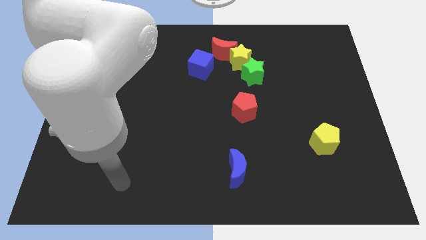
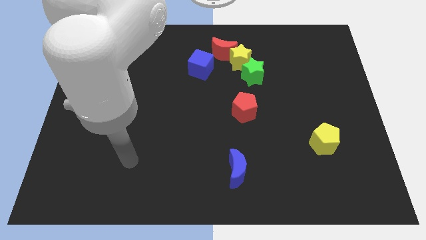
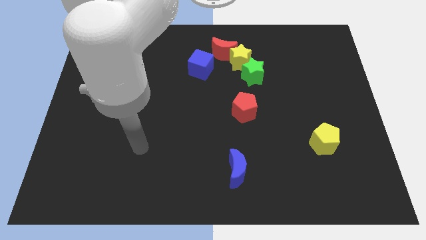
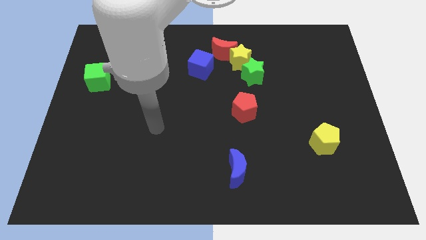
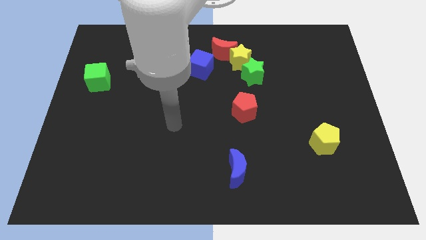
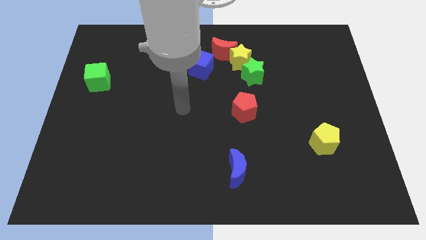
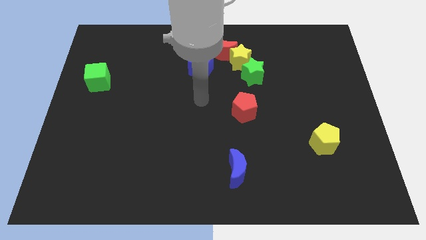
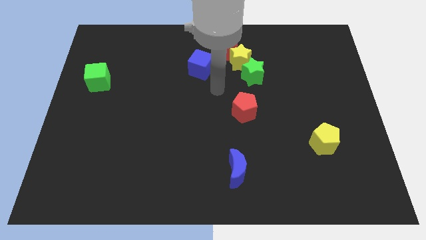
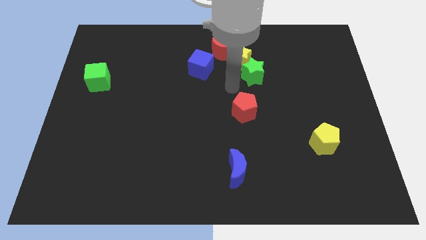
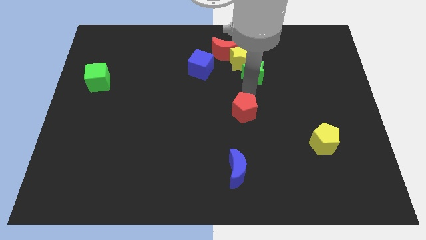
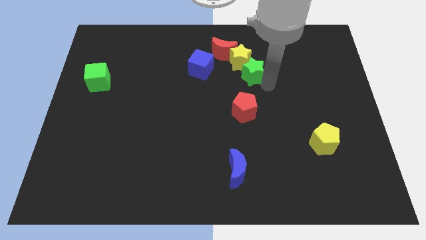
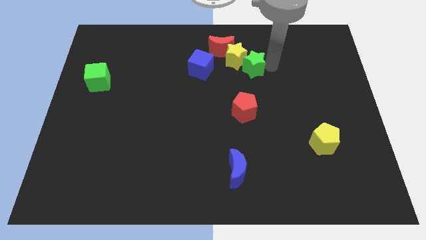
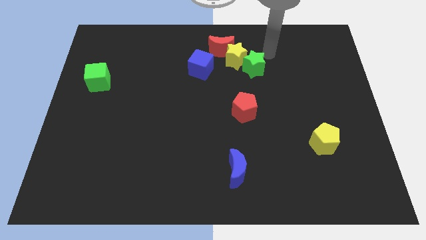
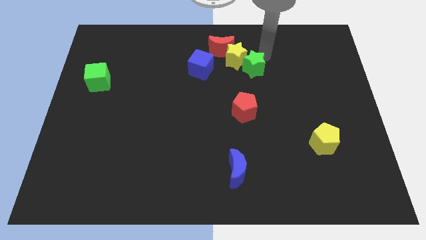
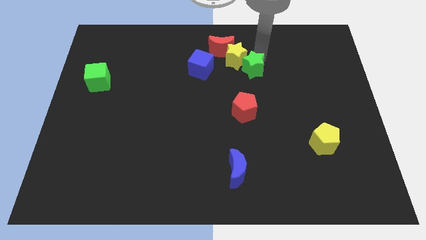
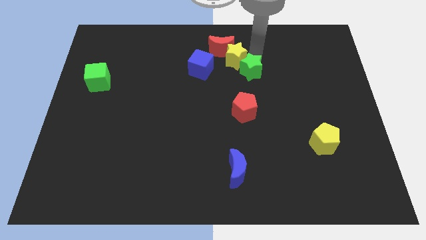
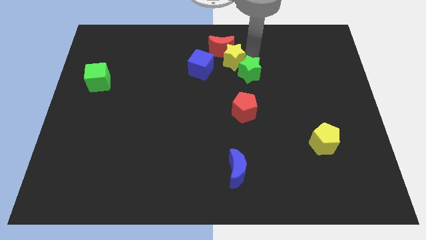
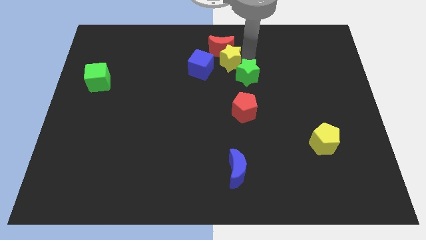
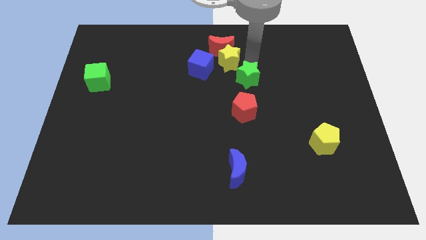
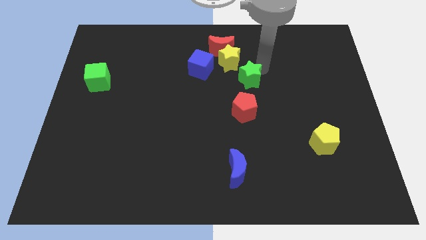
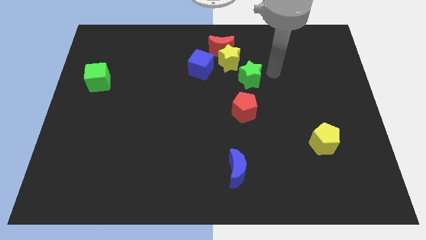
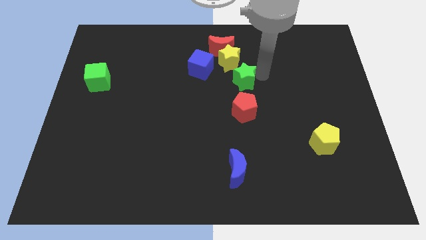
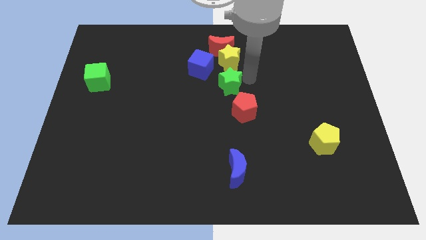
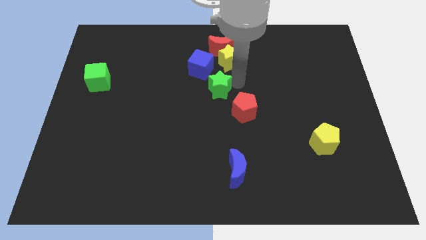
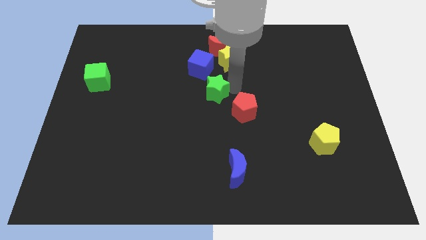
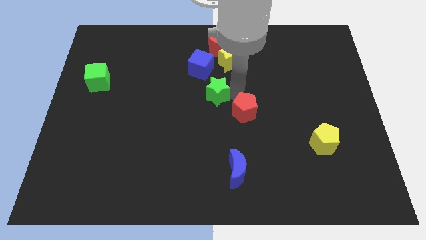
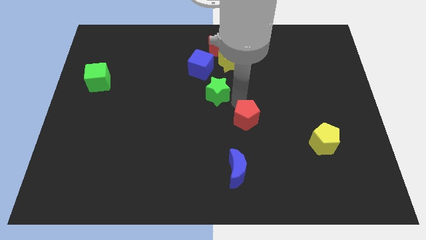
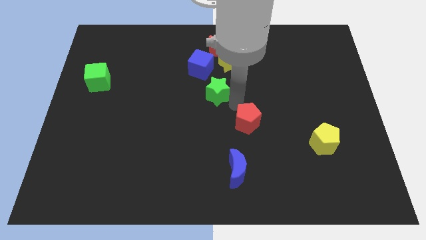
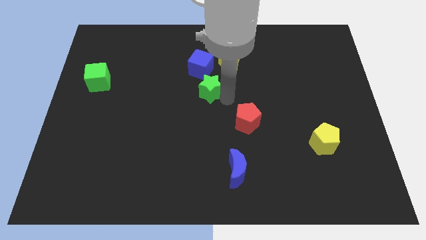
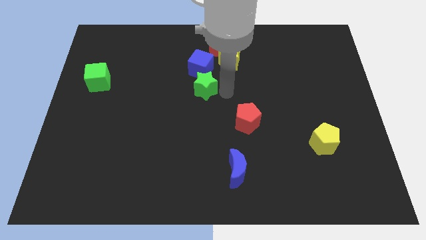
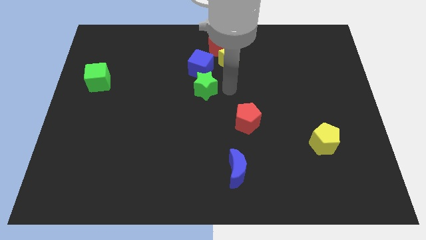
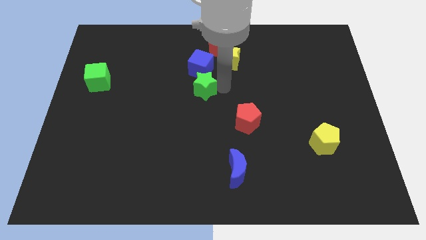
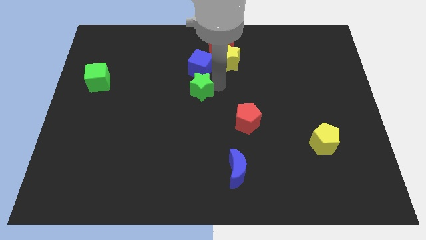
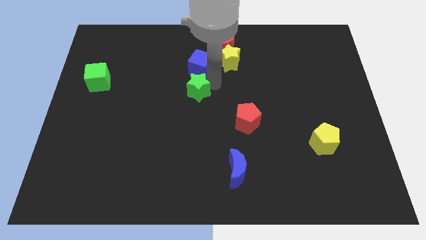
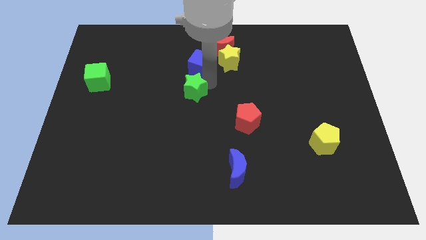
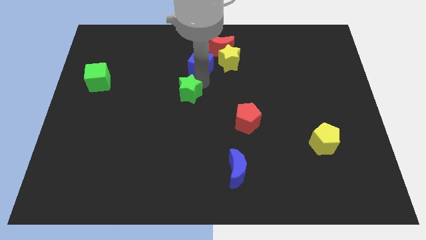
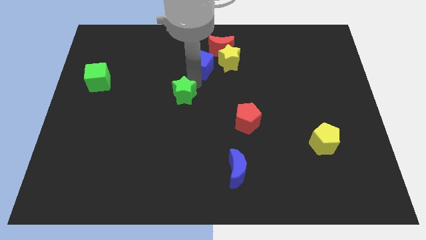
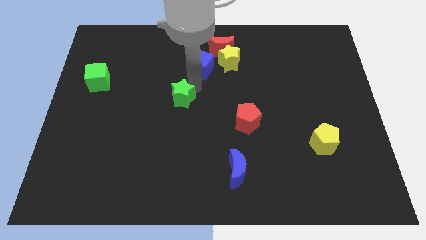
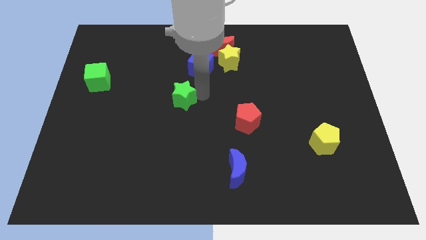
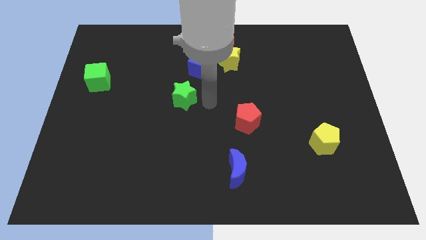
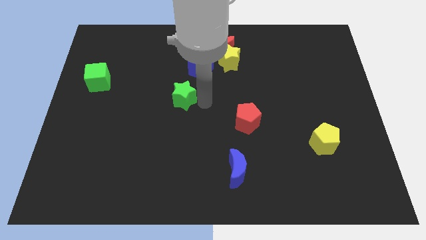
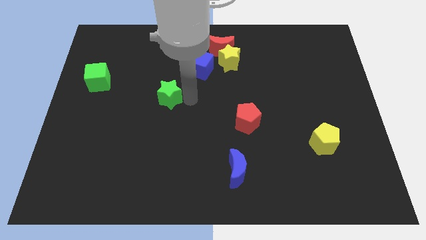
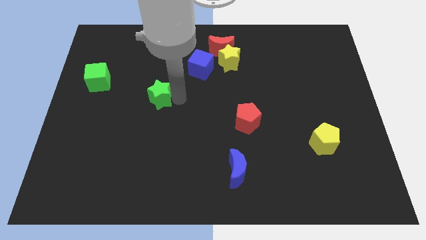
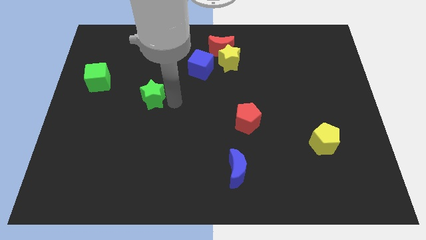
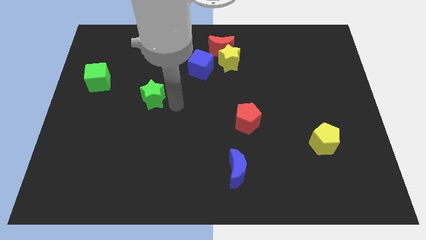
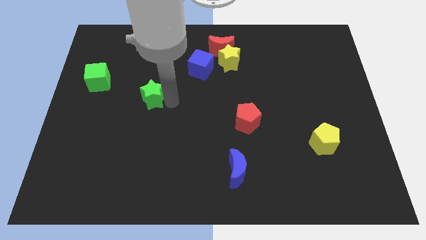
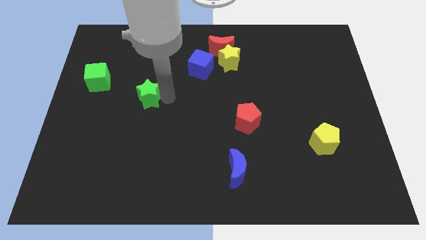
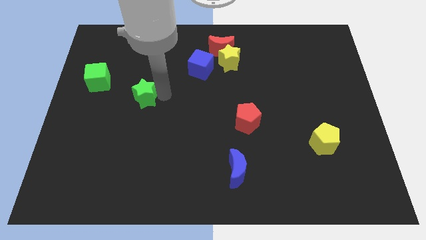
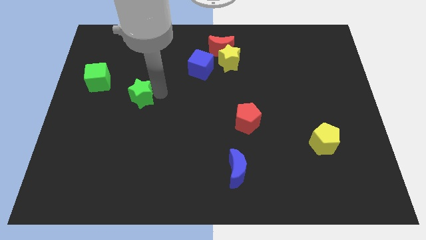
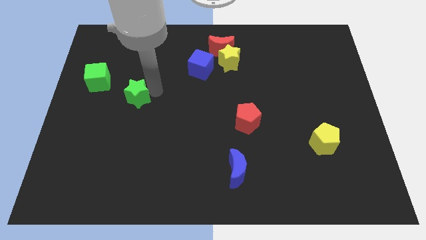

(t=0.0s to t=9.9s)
push the green star to the bottom right of the green cube

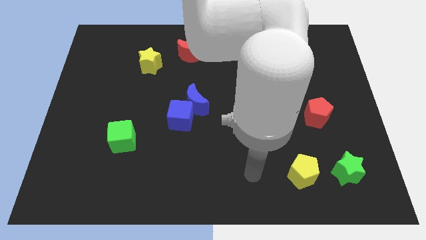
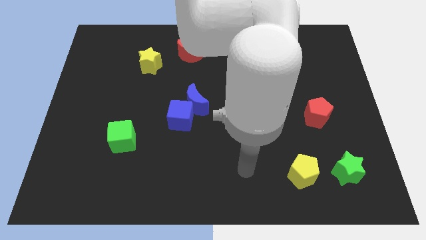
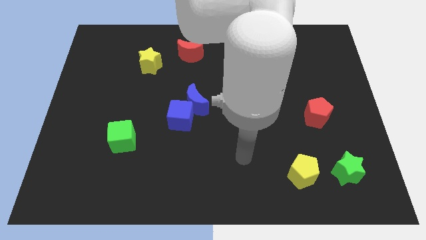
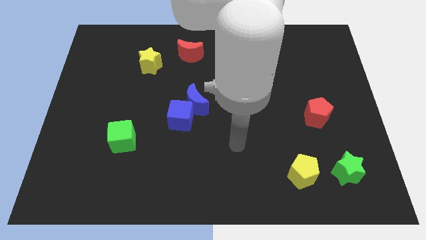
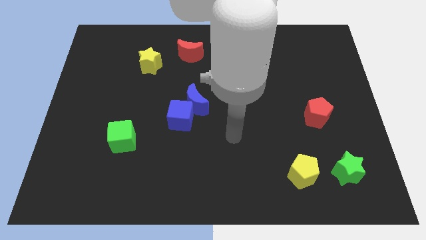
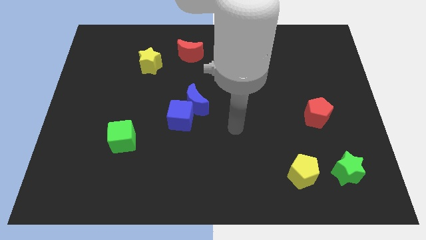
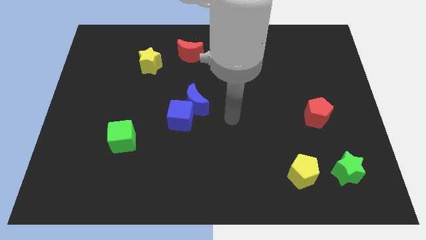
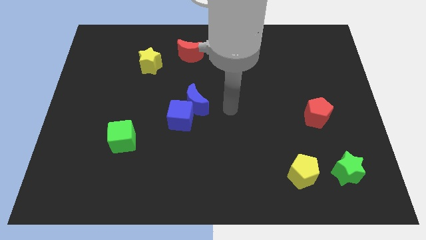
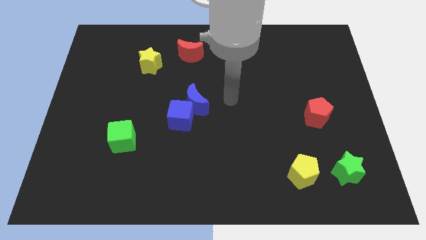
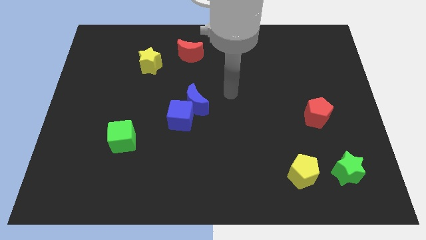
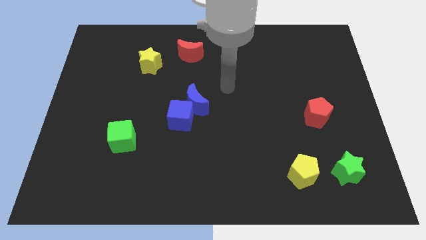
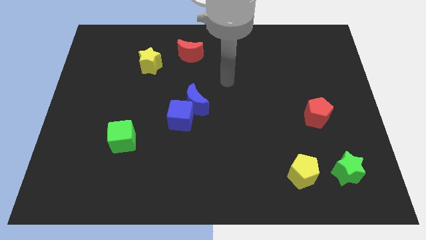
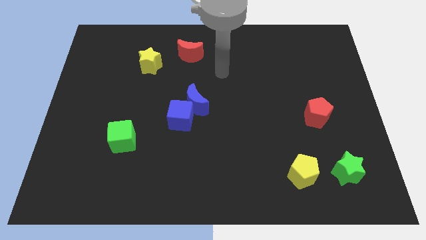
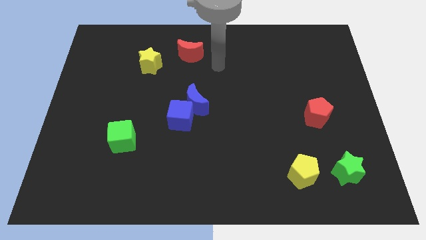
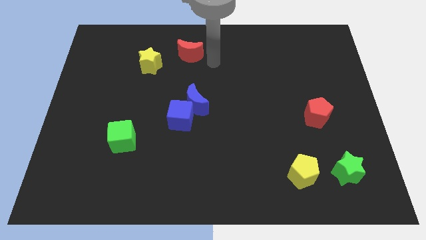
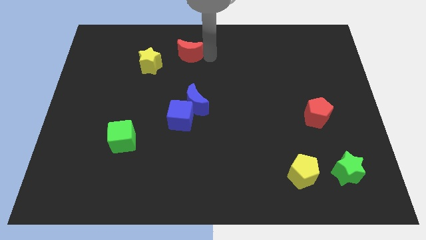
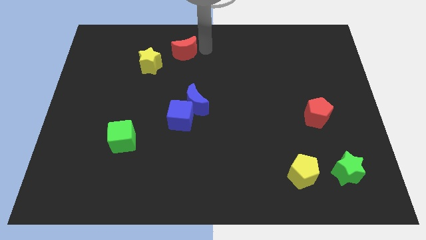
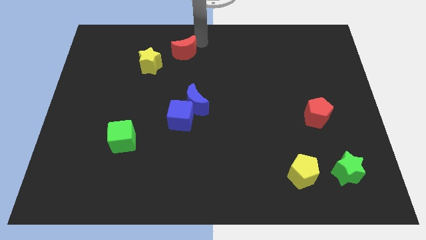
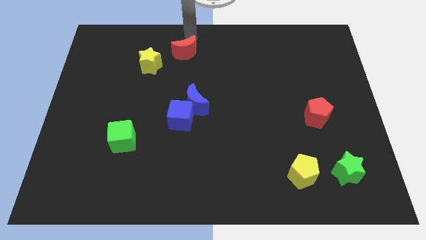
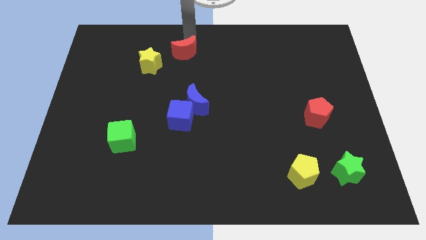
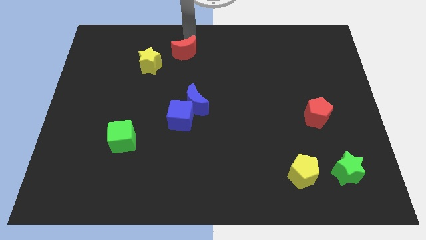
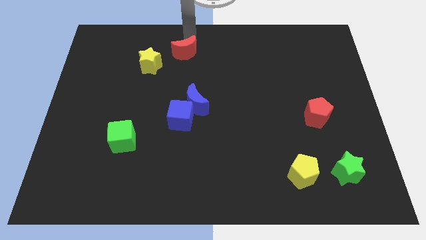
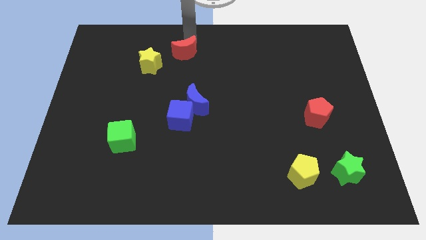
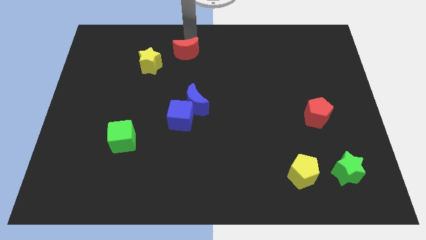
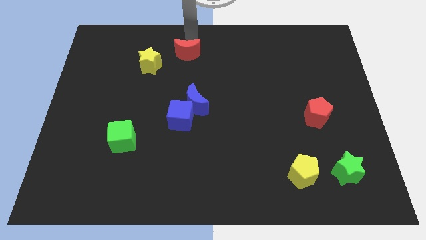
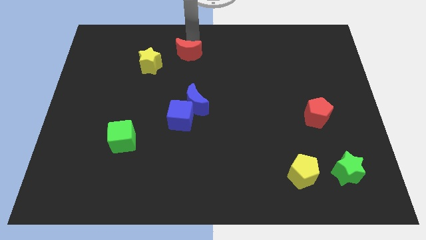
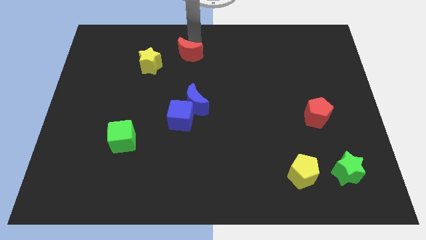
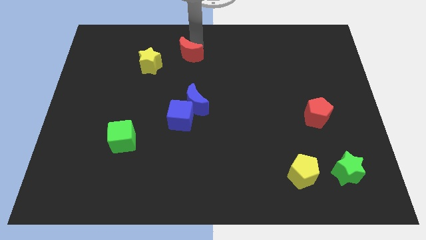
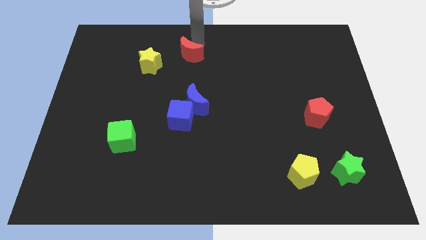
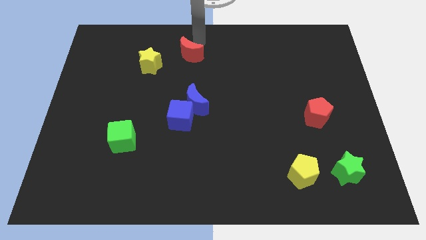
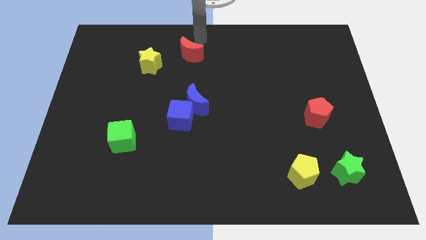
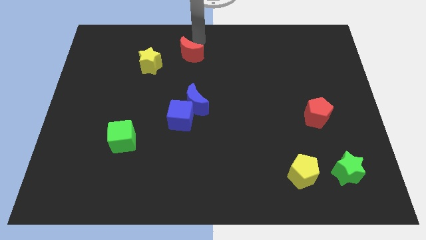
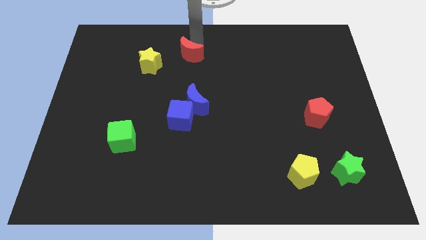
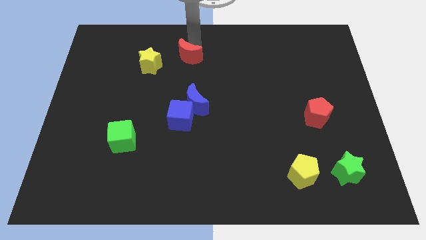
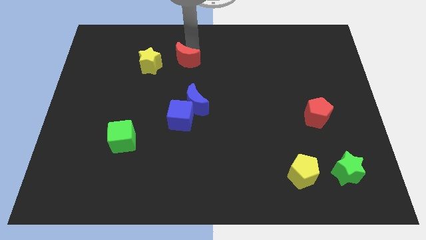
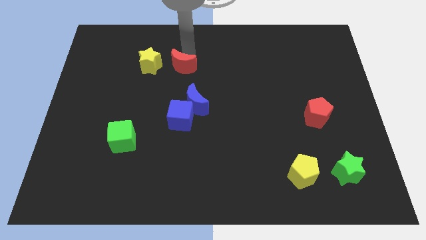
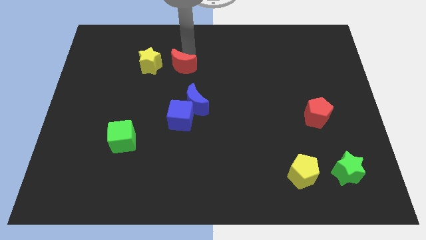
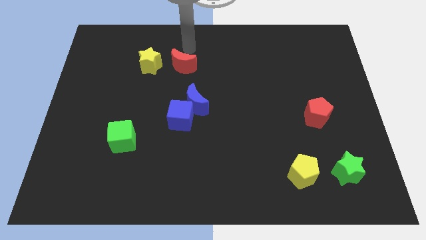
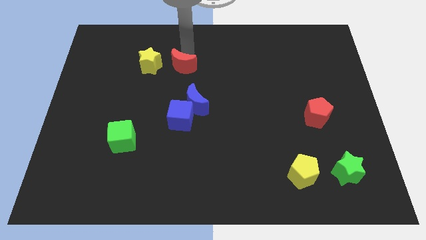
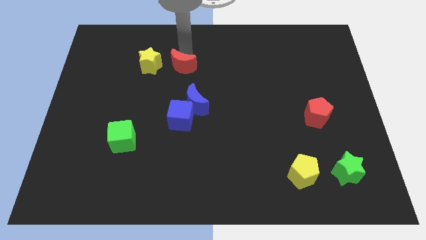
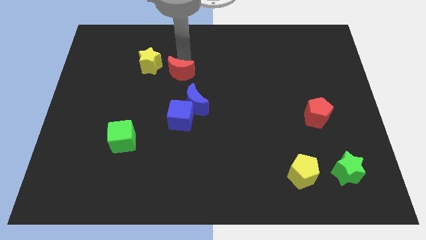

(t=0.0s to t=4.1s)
push the red moon diagonally up and to the left of the blue moon
